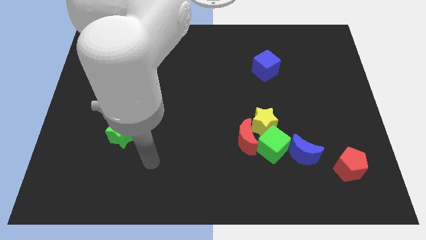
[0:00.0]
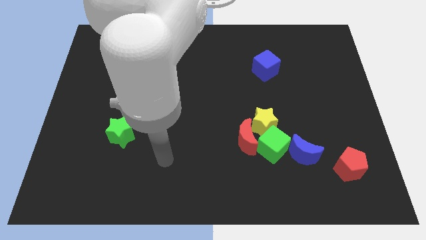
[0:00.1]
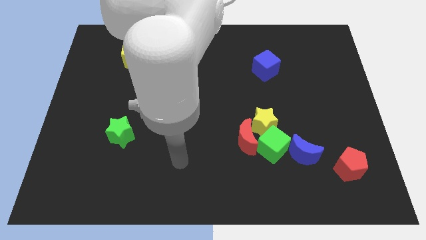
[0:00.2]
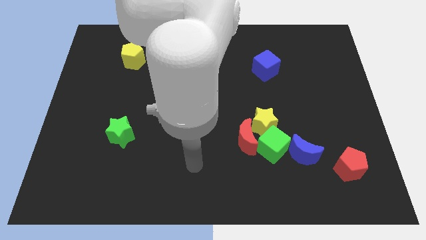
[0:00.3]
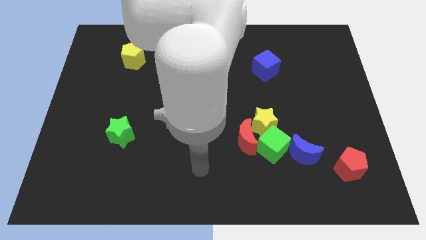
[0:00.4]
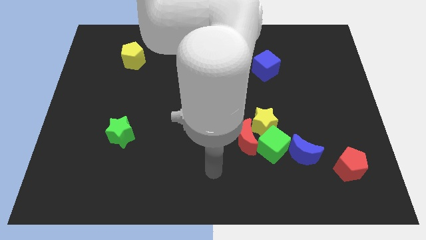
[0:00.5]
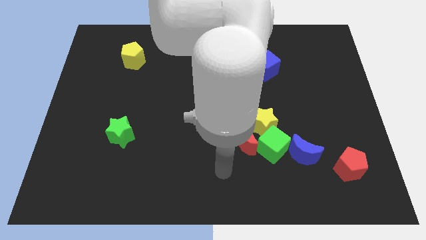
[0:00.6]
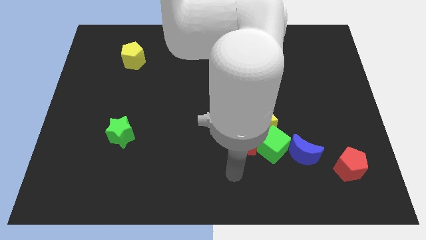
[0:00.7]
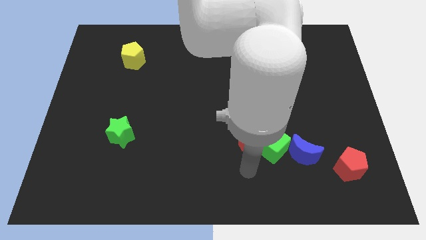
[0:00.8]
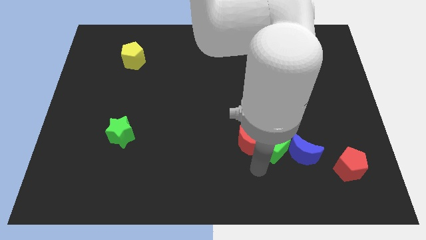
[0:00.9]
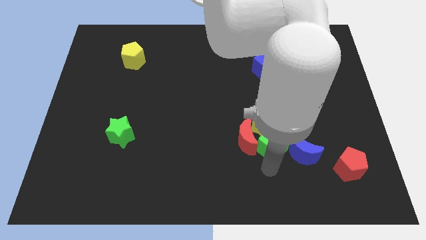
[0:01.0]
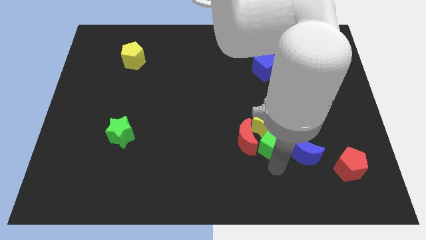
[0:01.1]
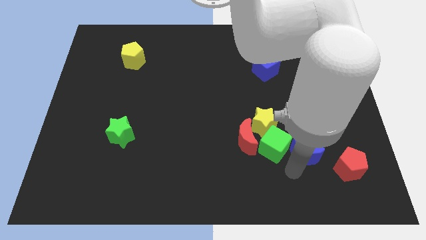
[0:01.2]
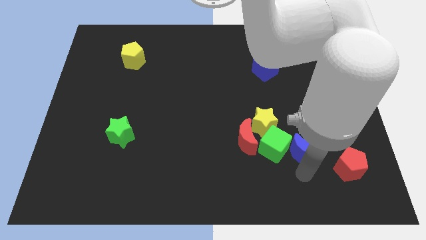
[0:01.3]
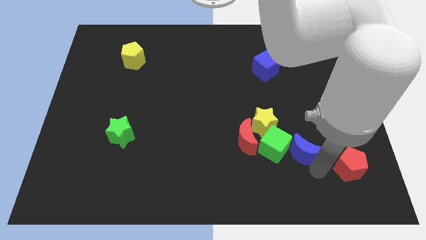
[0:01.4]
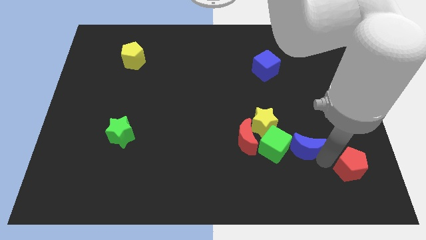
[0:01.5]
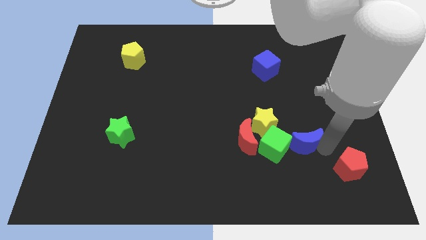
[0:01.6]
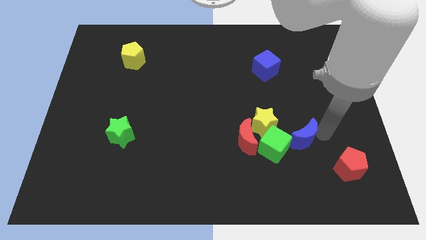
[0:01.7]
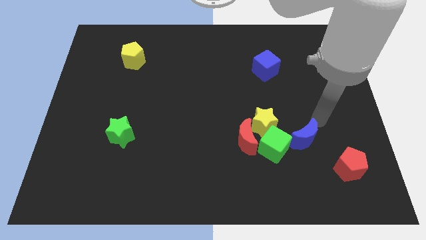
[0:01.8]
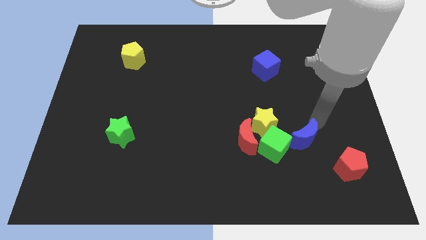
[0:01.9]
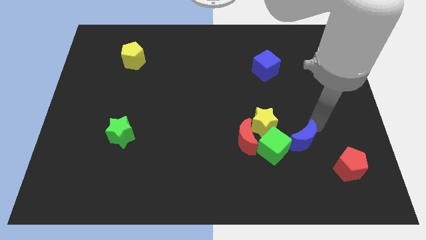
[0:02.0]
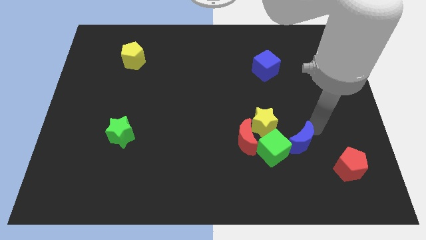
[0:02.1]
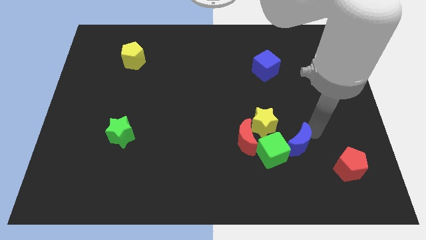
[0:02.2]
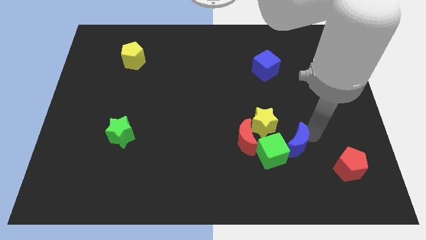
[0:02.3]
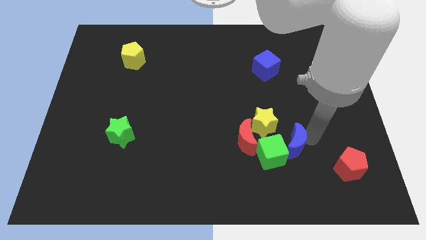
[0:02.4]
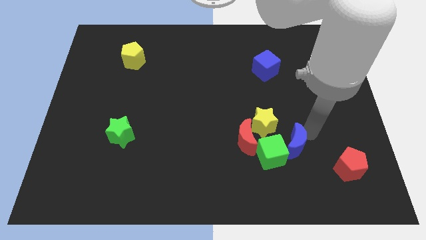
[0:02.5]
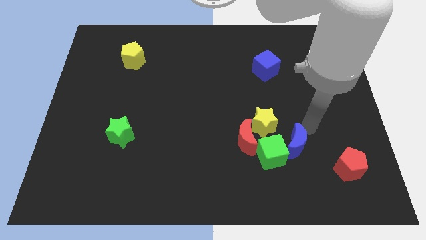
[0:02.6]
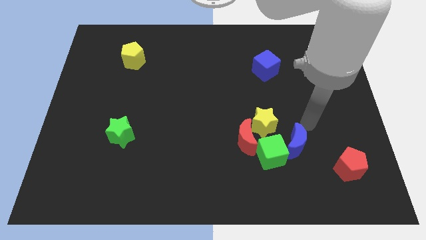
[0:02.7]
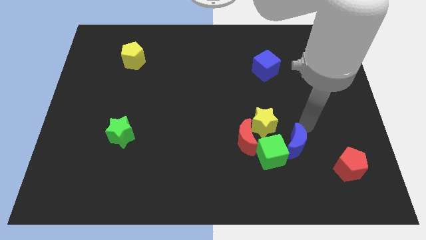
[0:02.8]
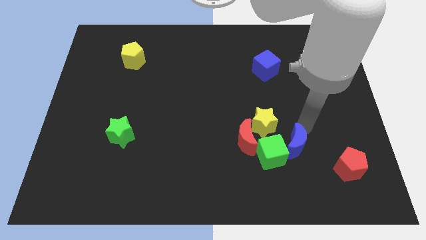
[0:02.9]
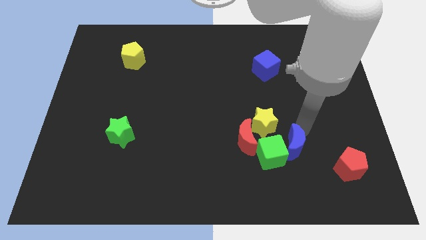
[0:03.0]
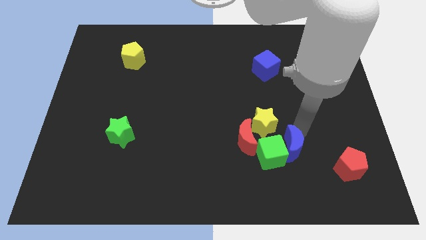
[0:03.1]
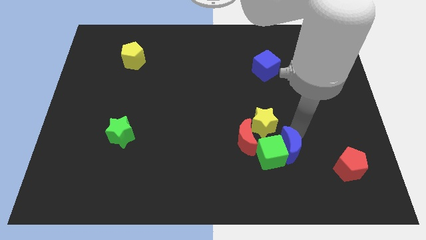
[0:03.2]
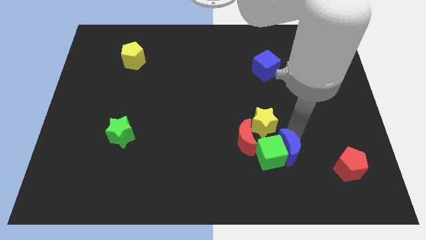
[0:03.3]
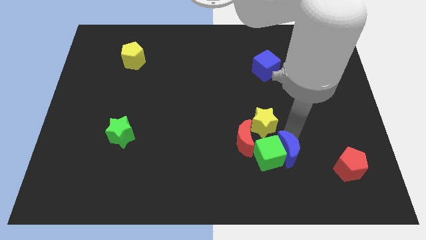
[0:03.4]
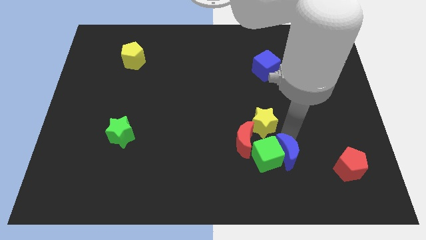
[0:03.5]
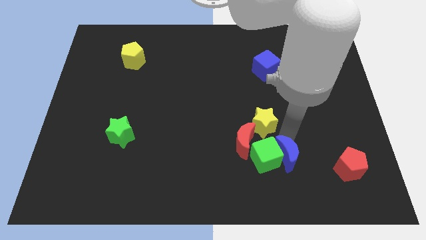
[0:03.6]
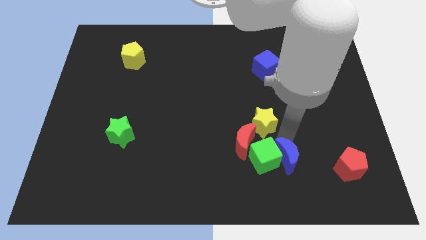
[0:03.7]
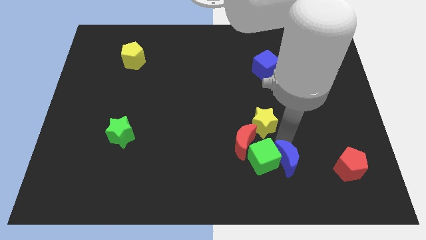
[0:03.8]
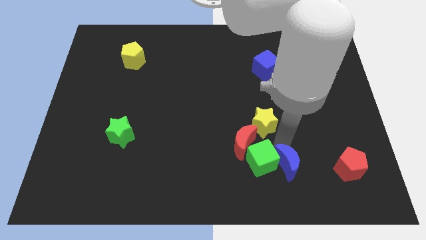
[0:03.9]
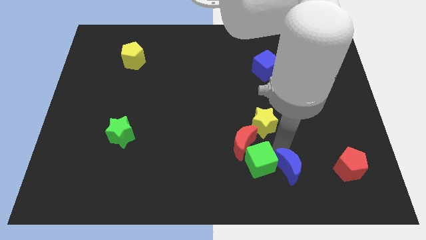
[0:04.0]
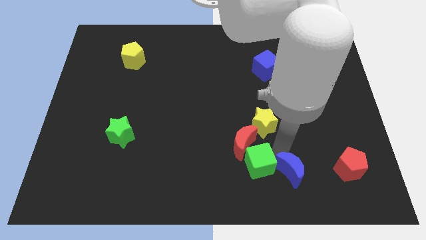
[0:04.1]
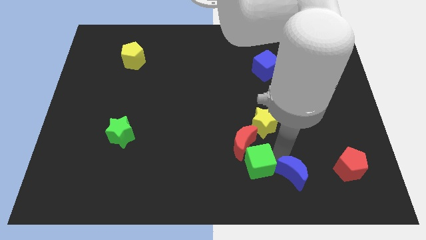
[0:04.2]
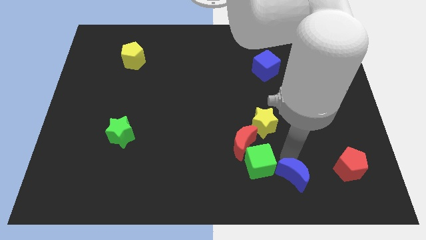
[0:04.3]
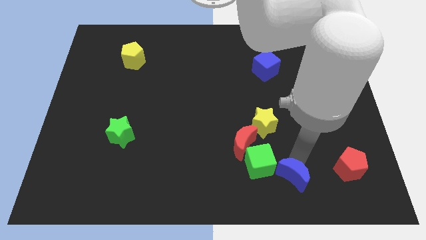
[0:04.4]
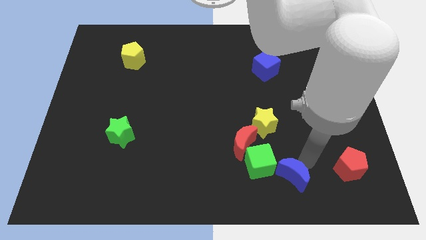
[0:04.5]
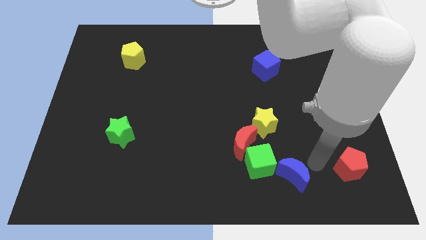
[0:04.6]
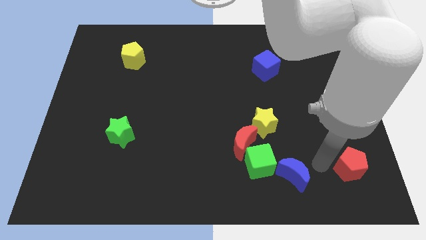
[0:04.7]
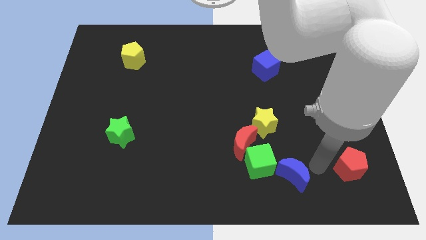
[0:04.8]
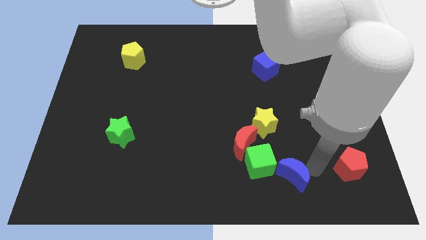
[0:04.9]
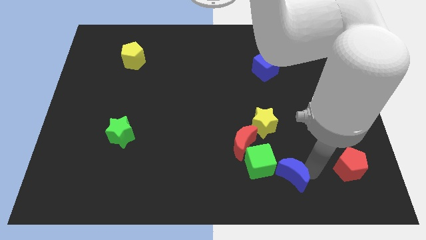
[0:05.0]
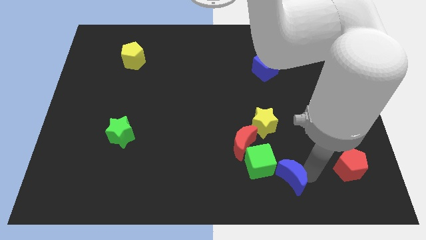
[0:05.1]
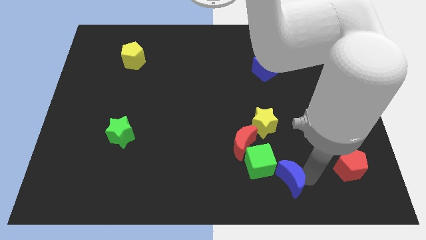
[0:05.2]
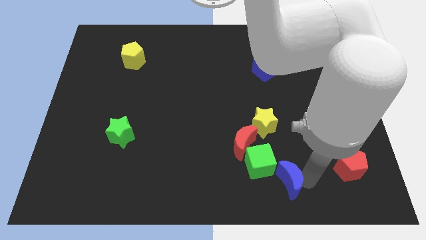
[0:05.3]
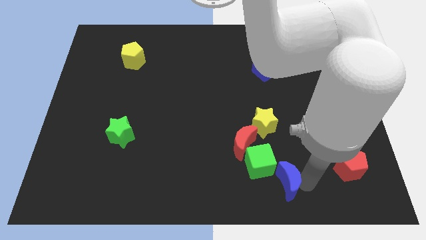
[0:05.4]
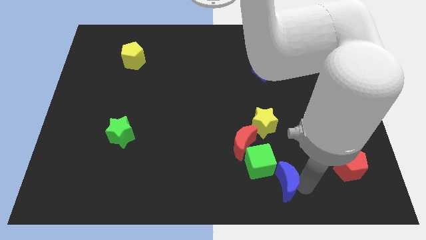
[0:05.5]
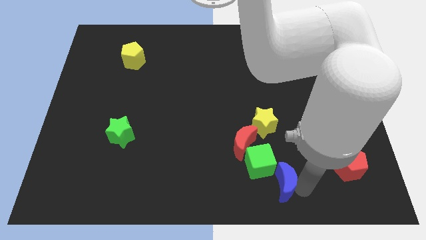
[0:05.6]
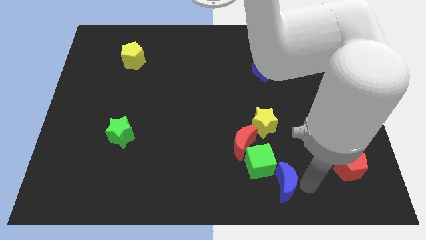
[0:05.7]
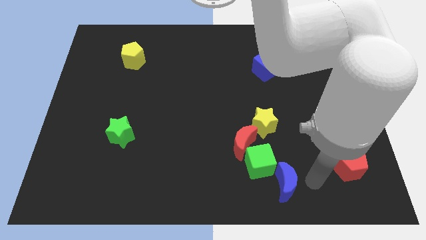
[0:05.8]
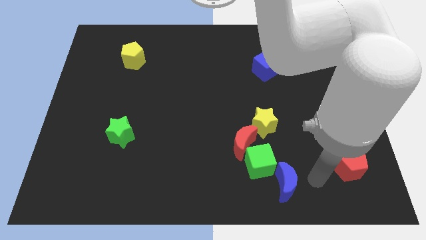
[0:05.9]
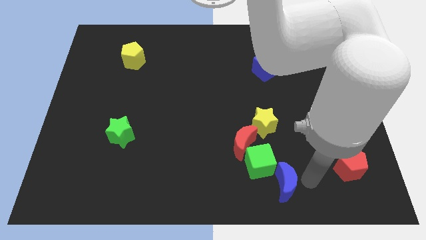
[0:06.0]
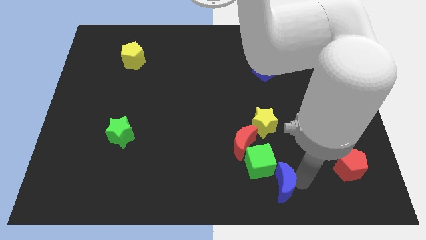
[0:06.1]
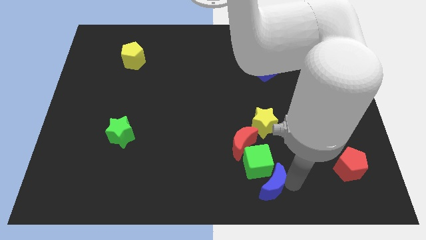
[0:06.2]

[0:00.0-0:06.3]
push the blue moon to the bottom
